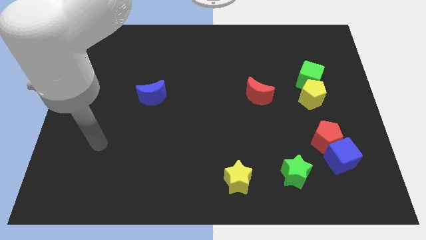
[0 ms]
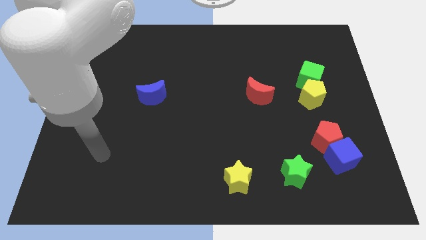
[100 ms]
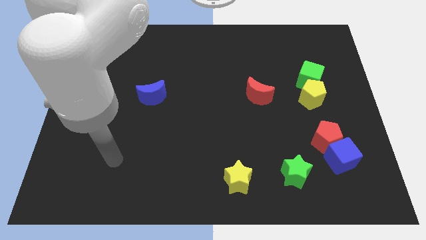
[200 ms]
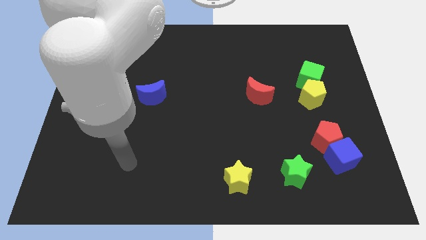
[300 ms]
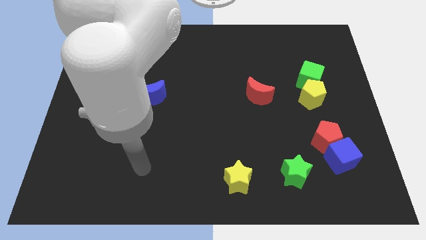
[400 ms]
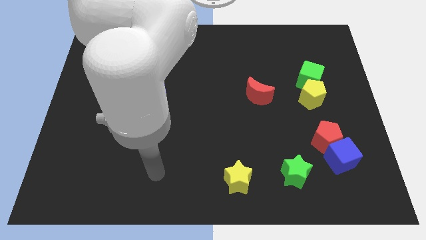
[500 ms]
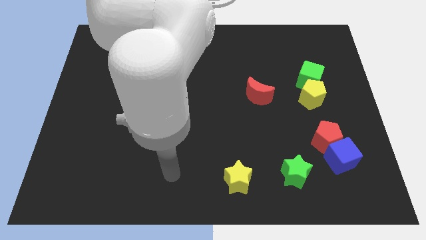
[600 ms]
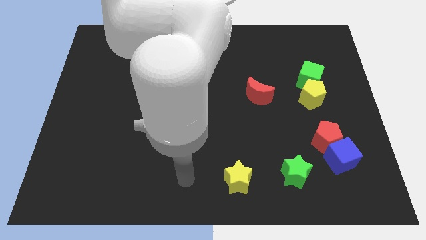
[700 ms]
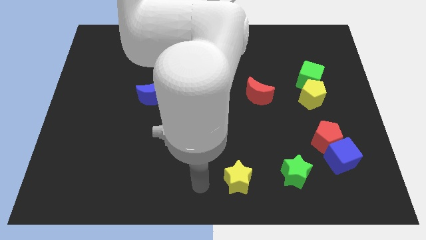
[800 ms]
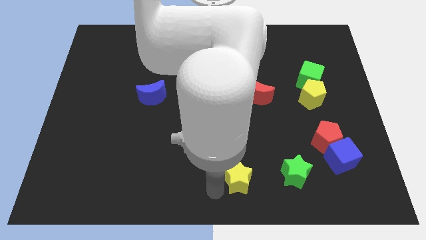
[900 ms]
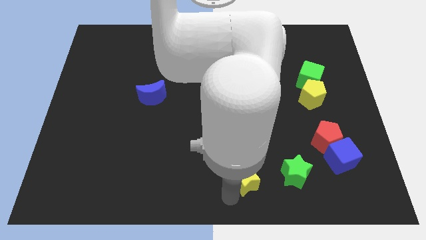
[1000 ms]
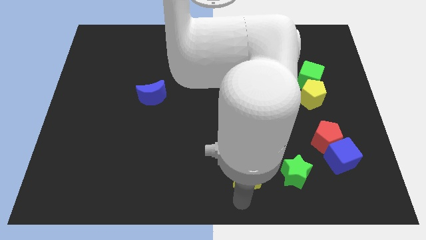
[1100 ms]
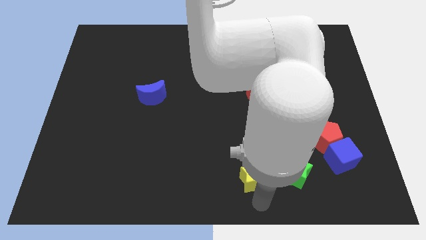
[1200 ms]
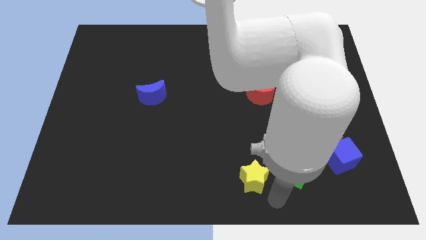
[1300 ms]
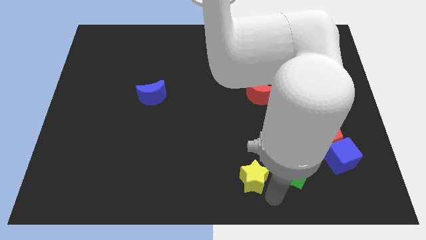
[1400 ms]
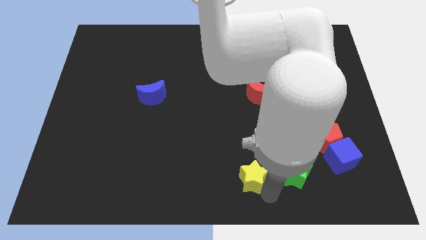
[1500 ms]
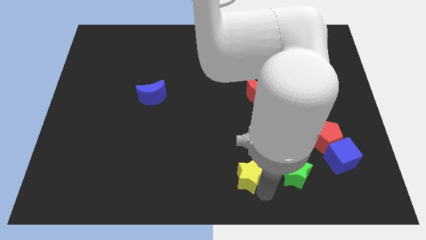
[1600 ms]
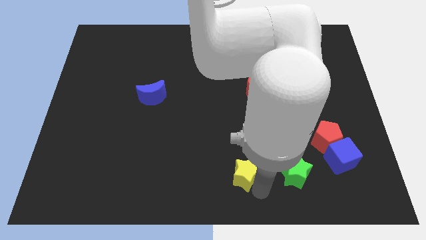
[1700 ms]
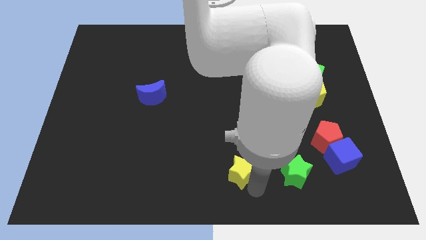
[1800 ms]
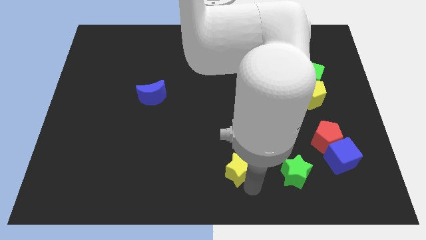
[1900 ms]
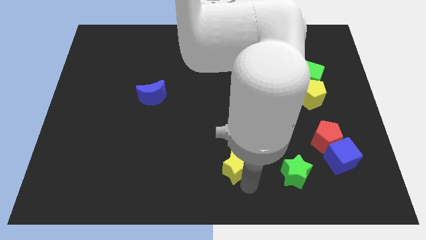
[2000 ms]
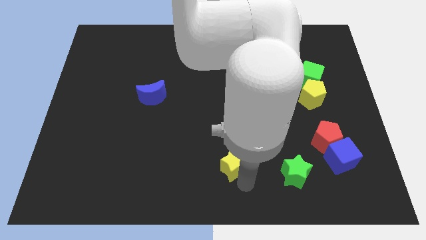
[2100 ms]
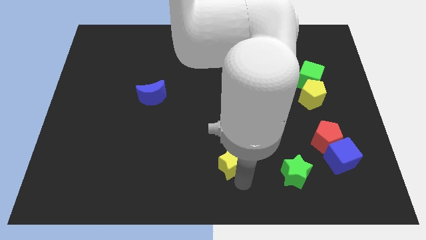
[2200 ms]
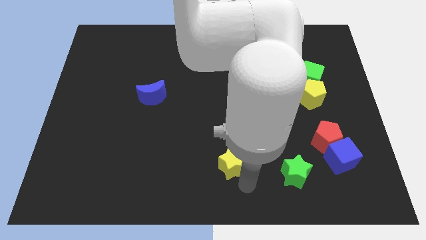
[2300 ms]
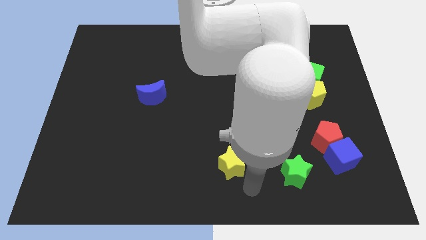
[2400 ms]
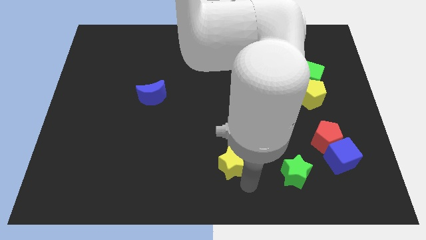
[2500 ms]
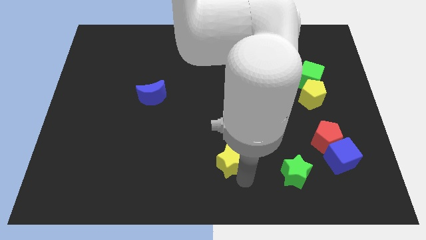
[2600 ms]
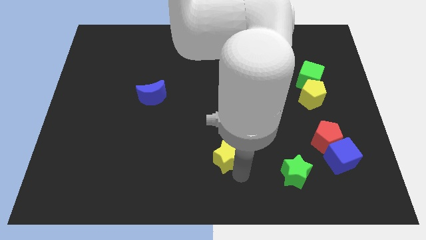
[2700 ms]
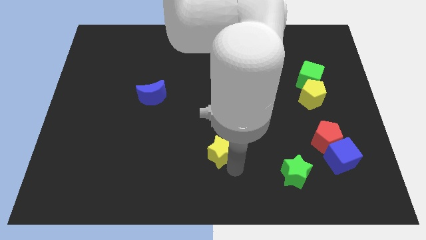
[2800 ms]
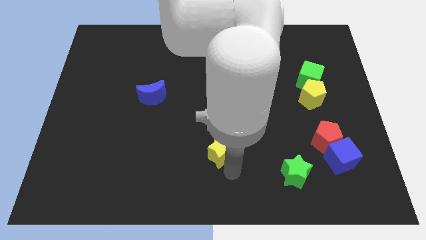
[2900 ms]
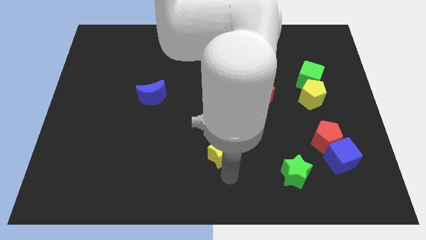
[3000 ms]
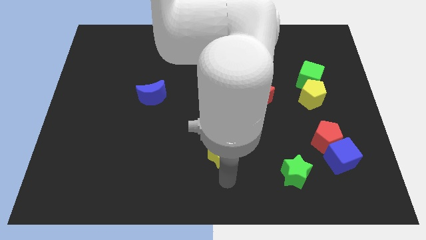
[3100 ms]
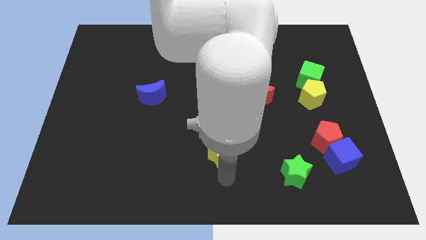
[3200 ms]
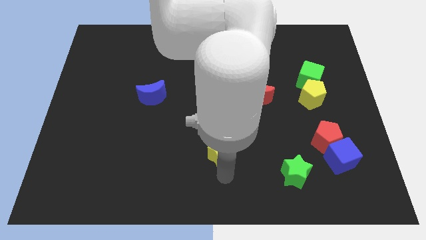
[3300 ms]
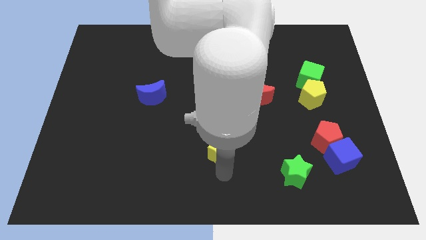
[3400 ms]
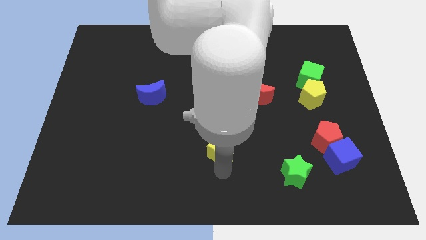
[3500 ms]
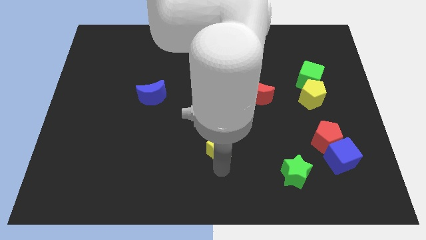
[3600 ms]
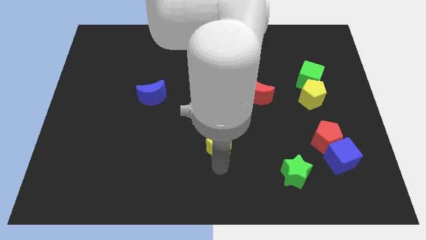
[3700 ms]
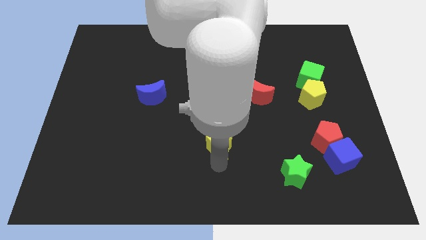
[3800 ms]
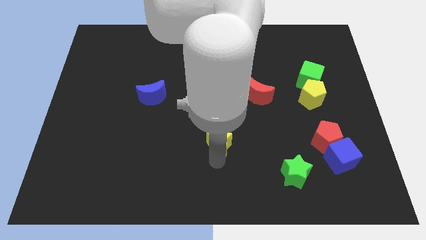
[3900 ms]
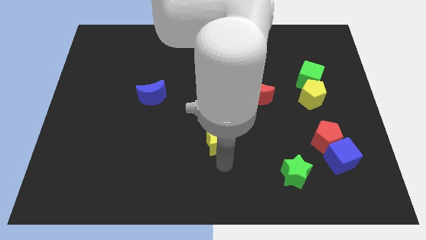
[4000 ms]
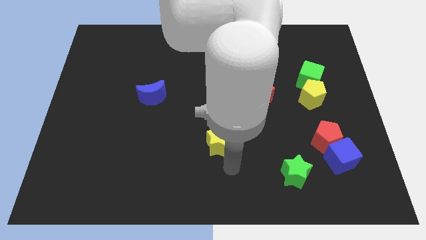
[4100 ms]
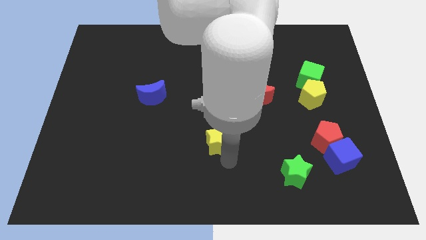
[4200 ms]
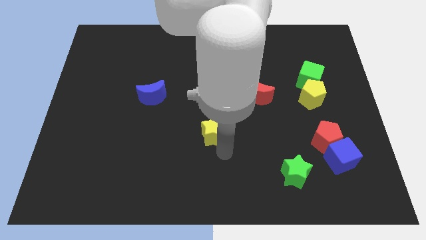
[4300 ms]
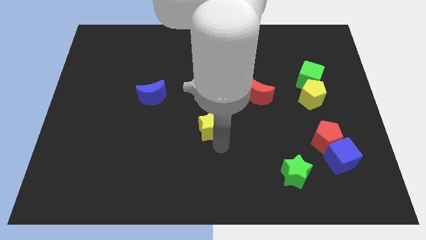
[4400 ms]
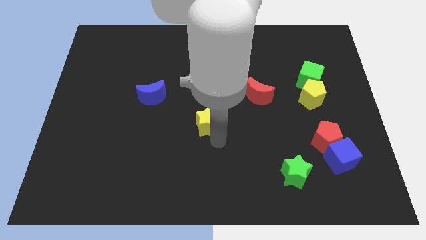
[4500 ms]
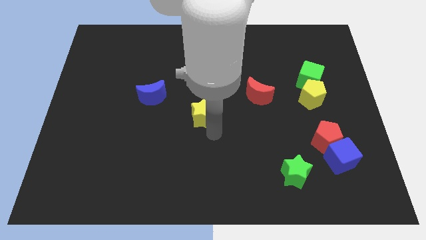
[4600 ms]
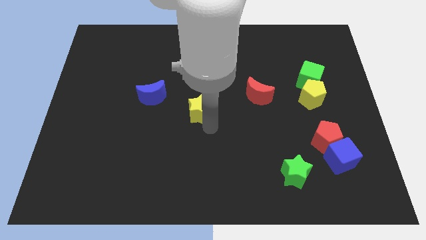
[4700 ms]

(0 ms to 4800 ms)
move the yellow star to the right side of the blue moon

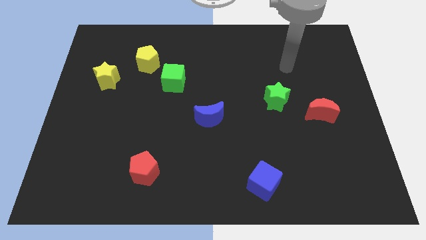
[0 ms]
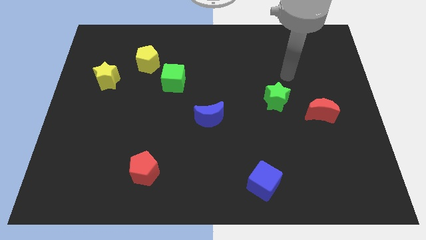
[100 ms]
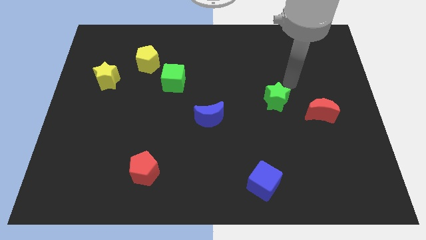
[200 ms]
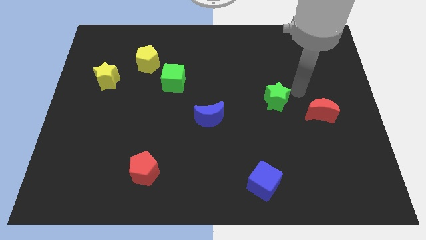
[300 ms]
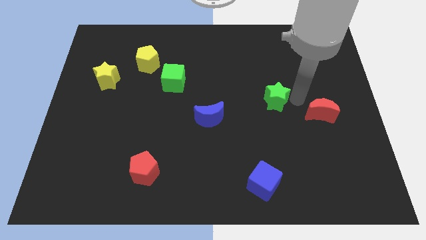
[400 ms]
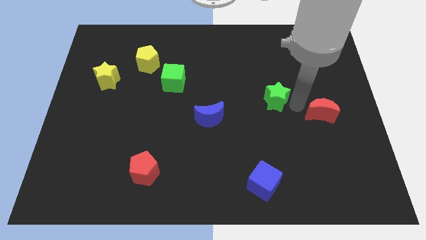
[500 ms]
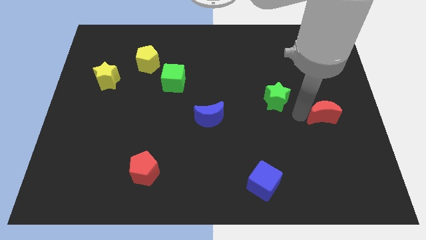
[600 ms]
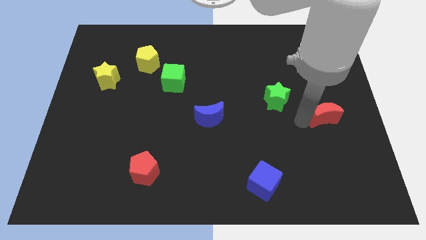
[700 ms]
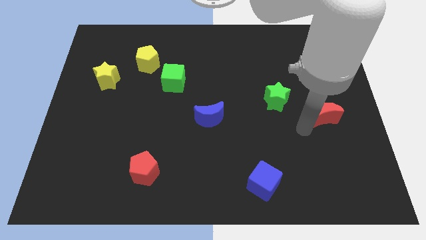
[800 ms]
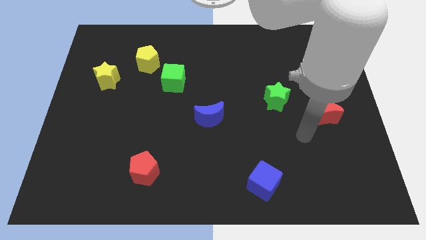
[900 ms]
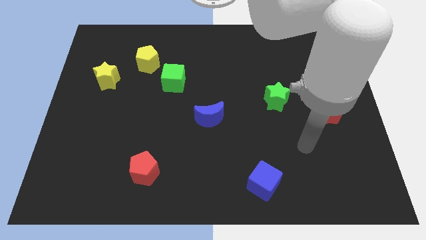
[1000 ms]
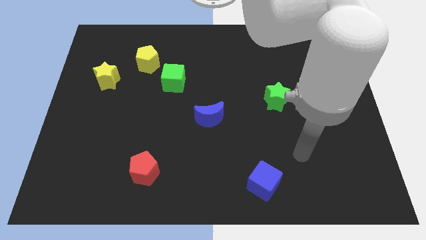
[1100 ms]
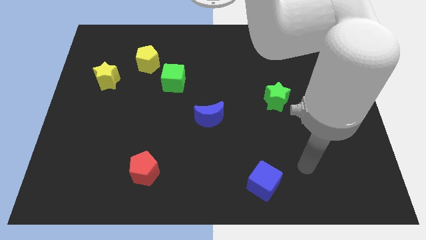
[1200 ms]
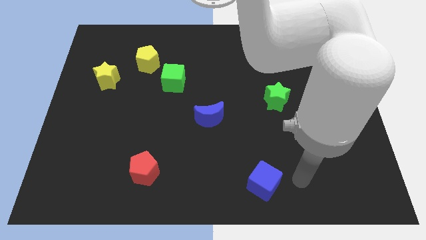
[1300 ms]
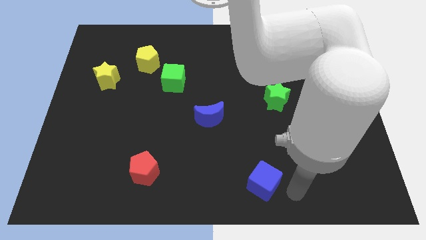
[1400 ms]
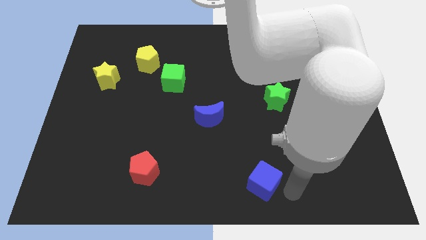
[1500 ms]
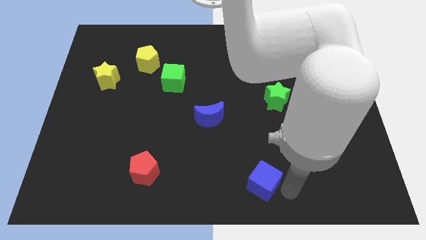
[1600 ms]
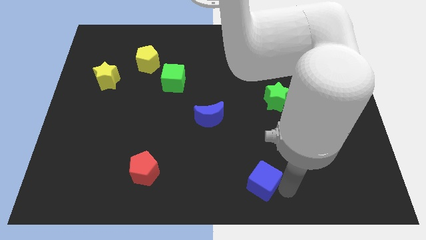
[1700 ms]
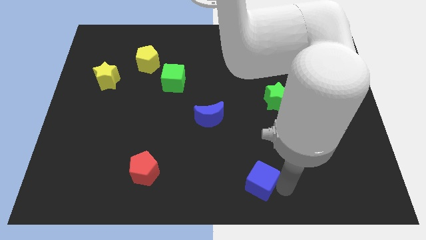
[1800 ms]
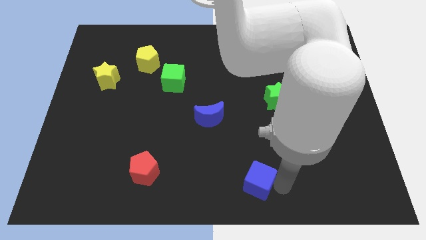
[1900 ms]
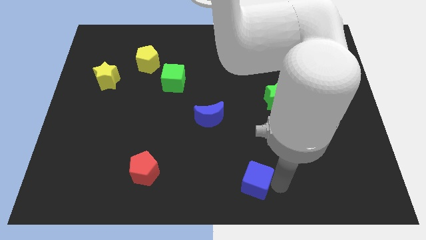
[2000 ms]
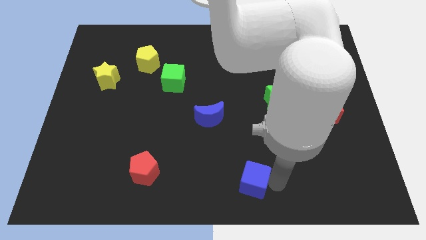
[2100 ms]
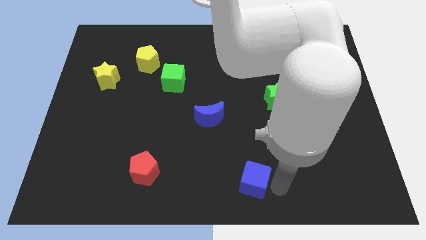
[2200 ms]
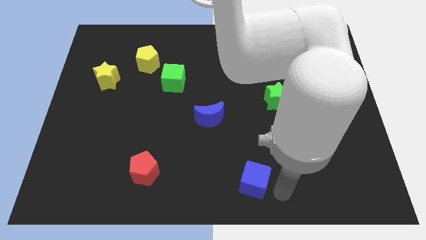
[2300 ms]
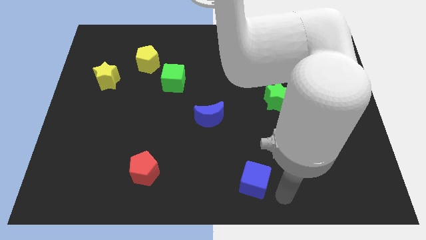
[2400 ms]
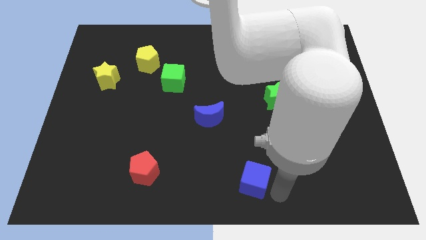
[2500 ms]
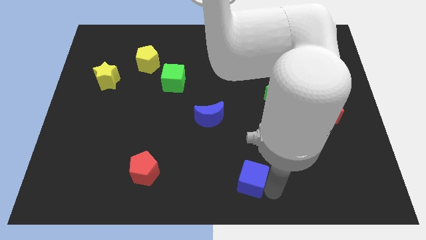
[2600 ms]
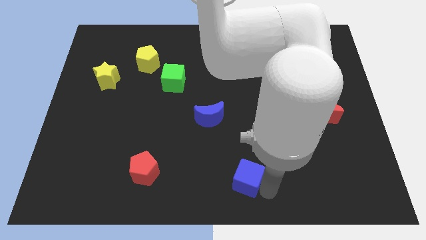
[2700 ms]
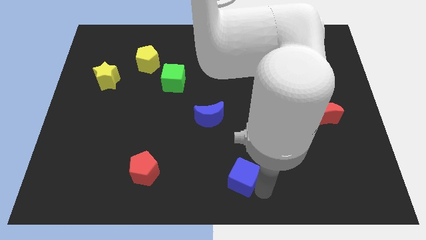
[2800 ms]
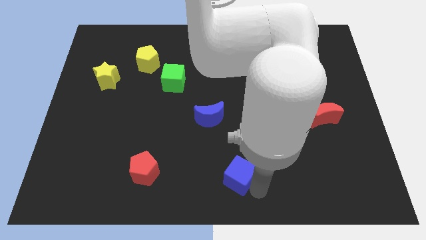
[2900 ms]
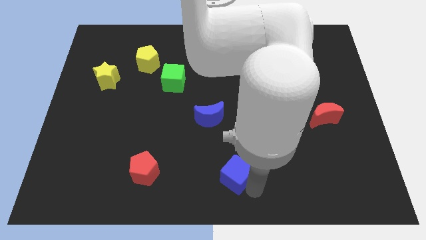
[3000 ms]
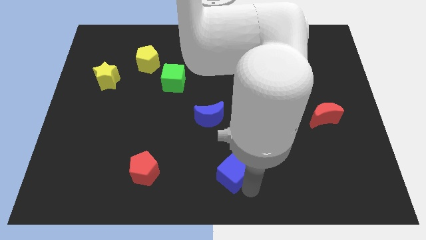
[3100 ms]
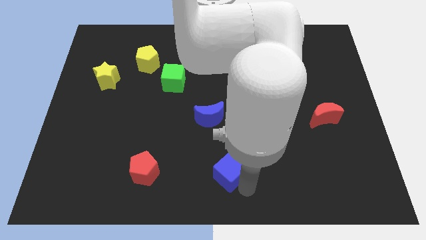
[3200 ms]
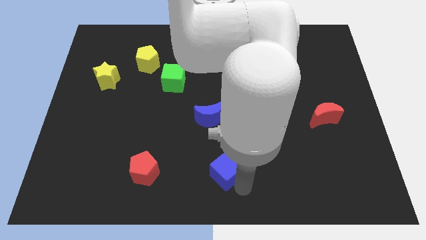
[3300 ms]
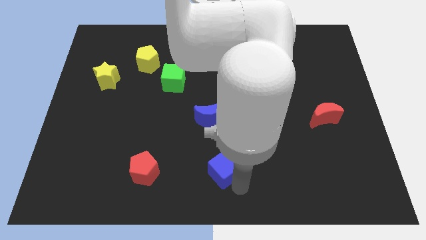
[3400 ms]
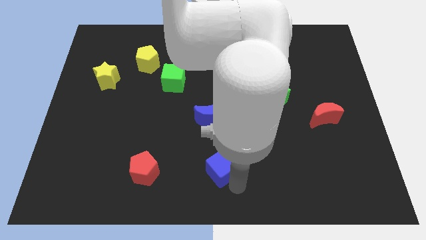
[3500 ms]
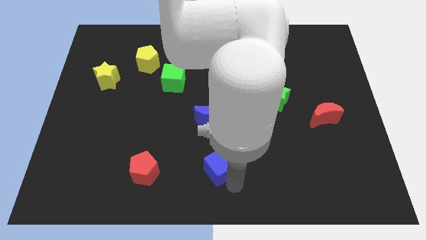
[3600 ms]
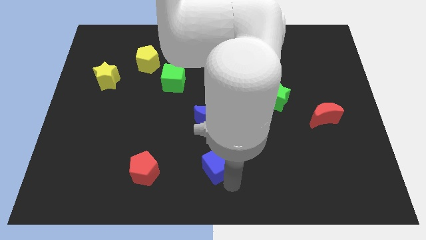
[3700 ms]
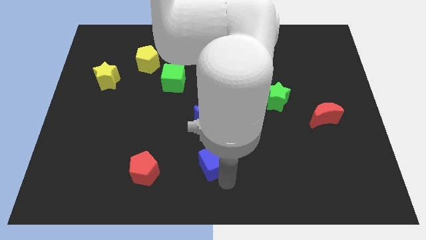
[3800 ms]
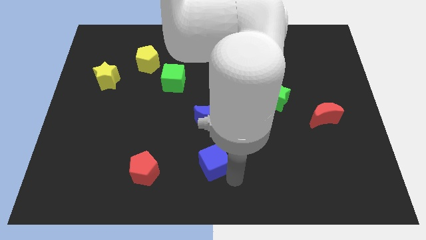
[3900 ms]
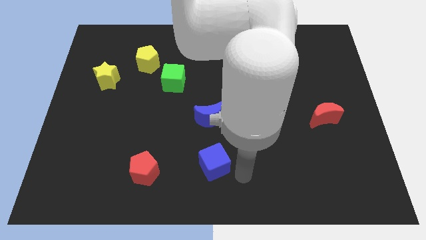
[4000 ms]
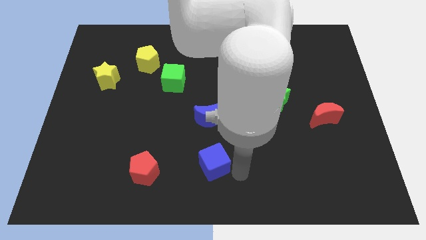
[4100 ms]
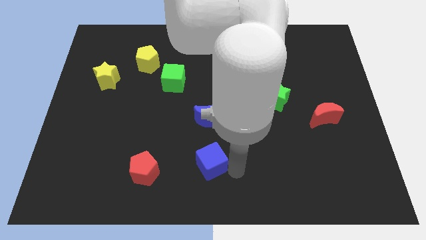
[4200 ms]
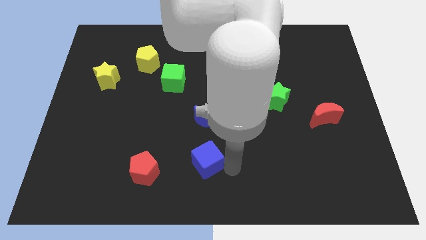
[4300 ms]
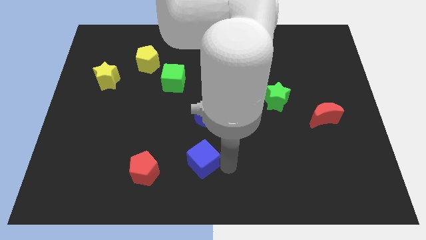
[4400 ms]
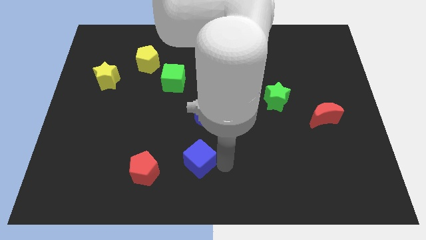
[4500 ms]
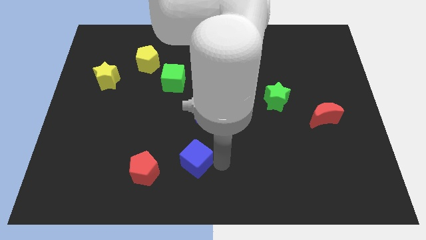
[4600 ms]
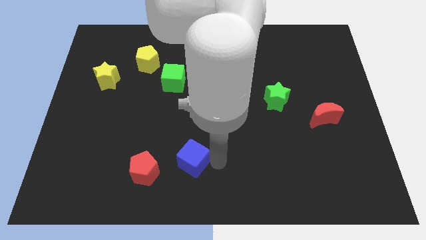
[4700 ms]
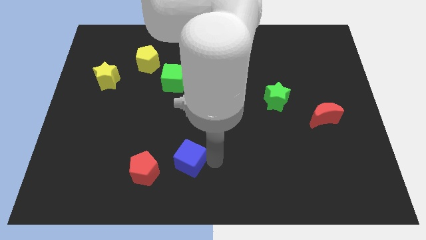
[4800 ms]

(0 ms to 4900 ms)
put the blue cube diagonally up and to the right of the red pentagon
